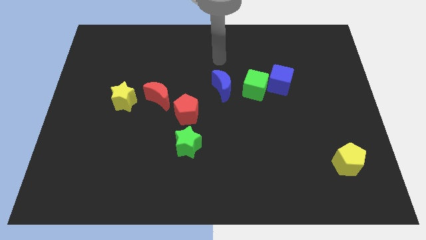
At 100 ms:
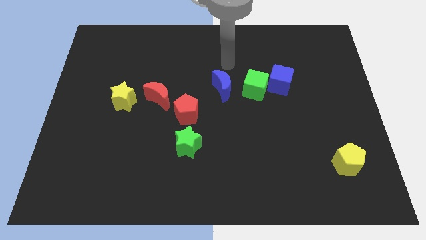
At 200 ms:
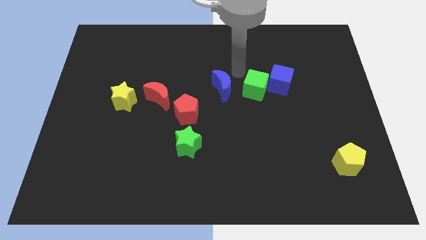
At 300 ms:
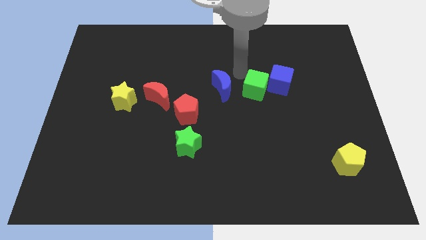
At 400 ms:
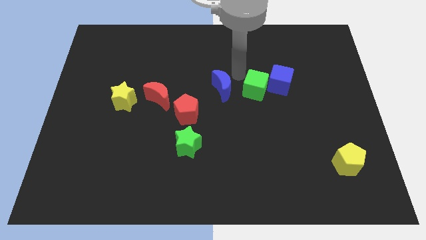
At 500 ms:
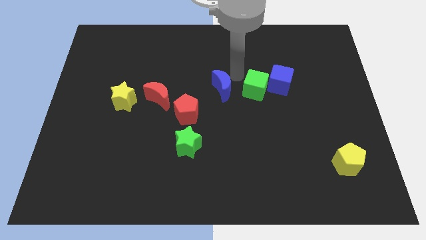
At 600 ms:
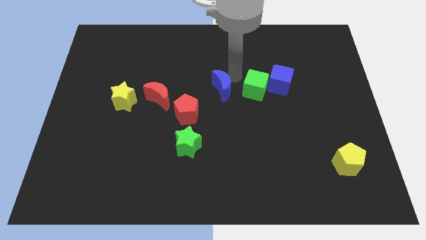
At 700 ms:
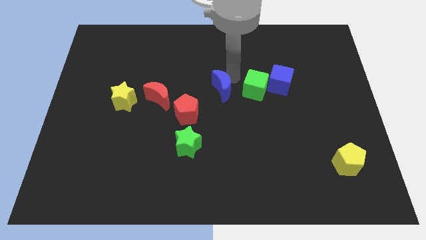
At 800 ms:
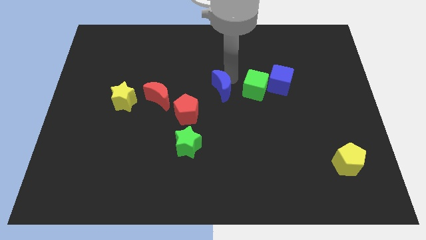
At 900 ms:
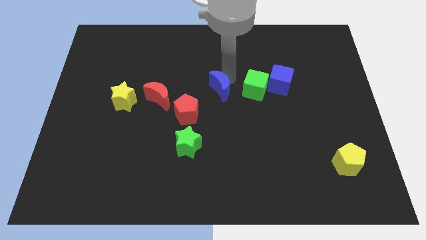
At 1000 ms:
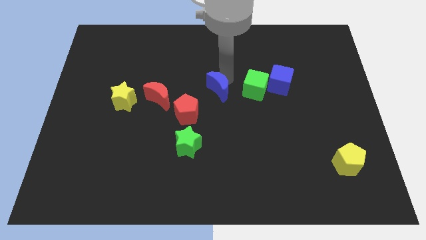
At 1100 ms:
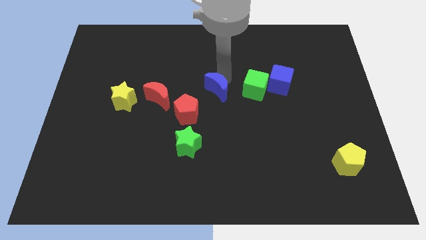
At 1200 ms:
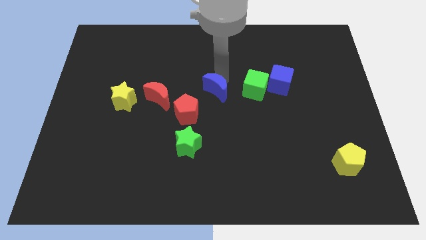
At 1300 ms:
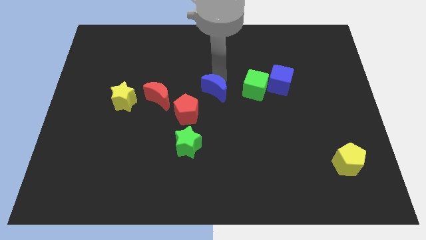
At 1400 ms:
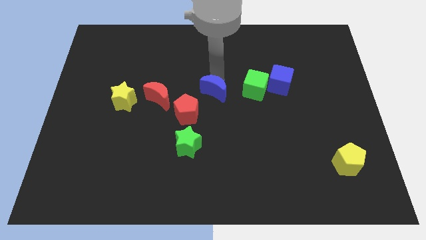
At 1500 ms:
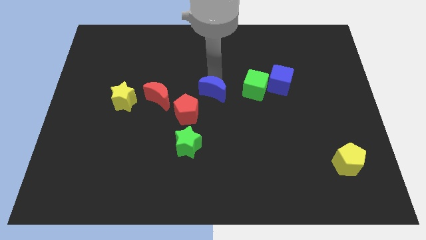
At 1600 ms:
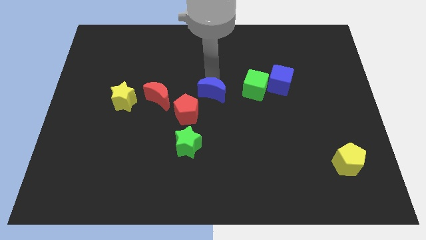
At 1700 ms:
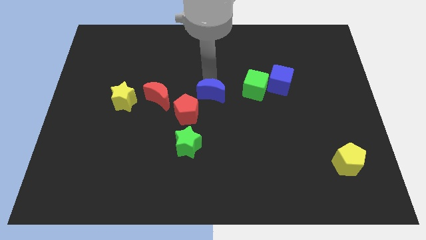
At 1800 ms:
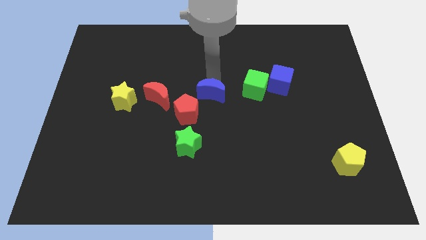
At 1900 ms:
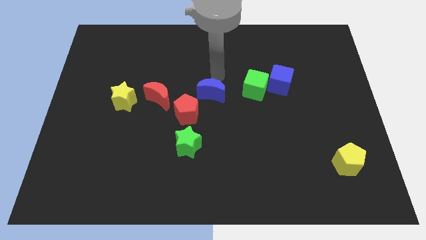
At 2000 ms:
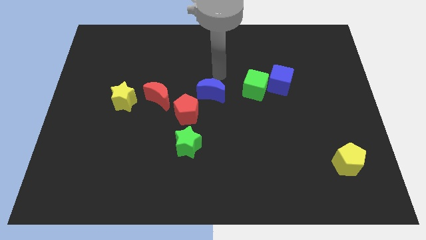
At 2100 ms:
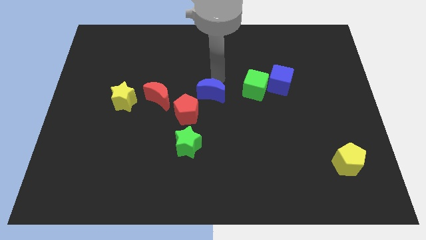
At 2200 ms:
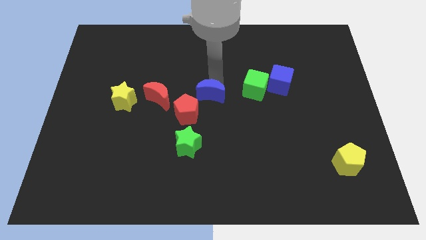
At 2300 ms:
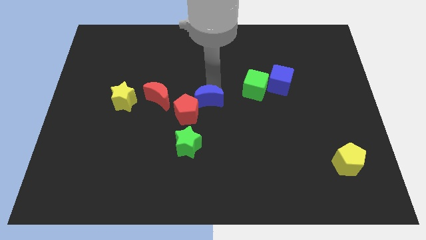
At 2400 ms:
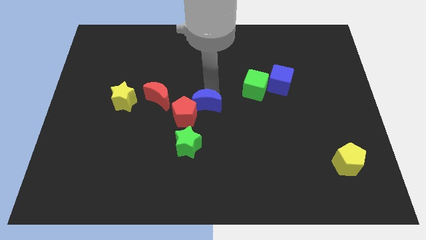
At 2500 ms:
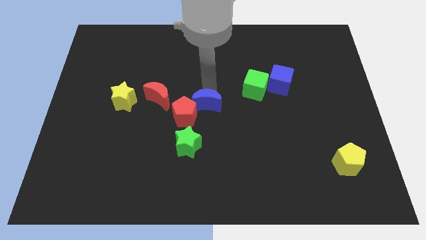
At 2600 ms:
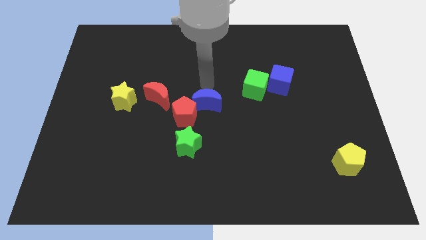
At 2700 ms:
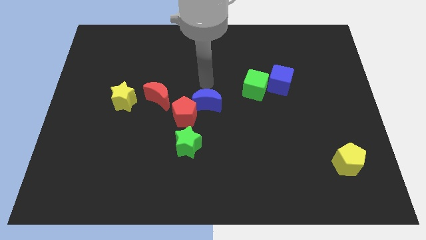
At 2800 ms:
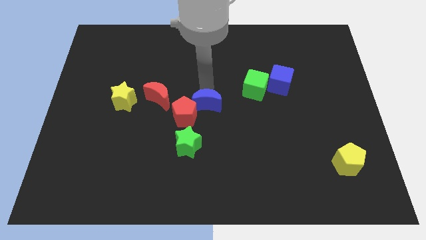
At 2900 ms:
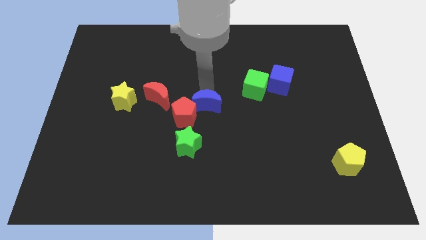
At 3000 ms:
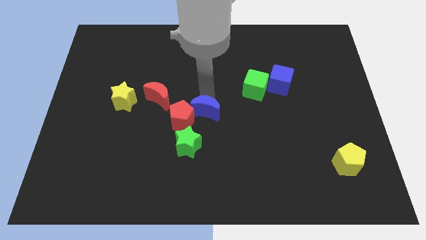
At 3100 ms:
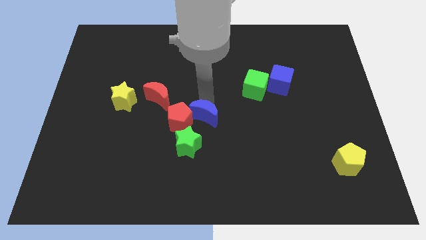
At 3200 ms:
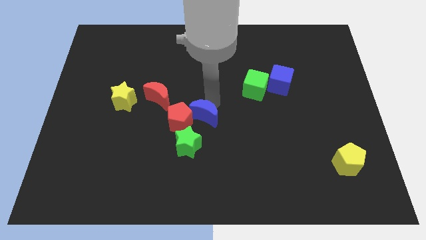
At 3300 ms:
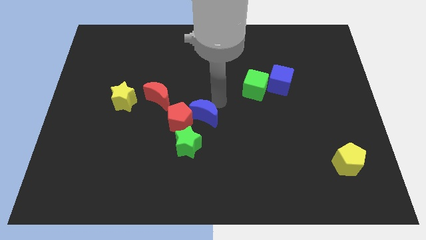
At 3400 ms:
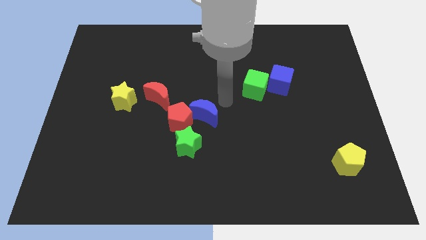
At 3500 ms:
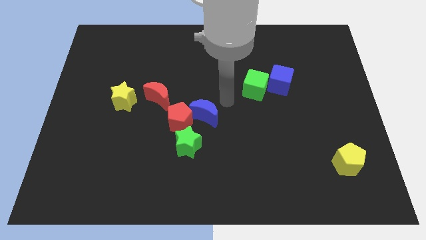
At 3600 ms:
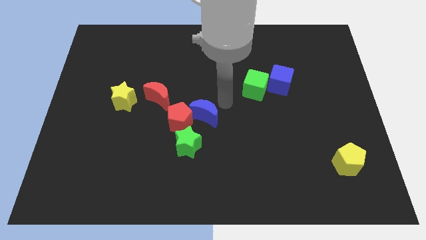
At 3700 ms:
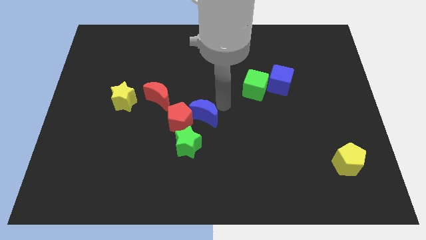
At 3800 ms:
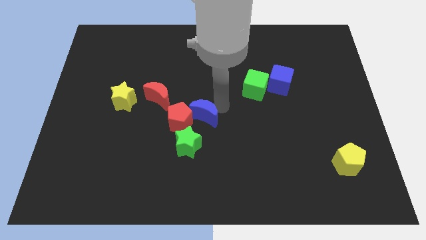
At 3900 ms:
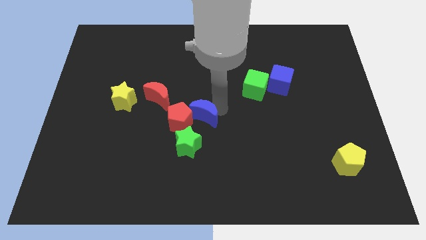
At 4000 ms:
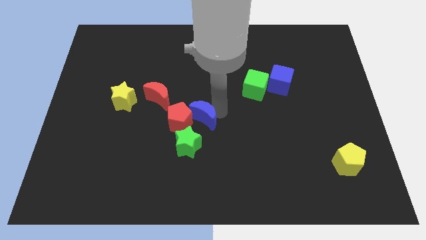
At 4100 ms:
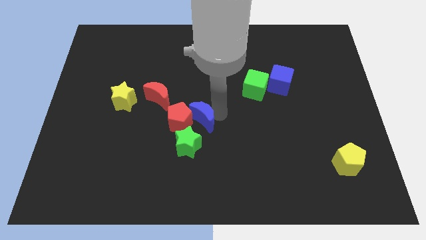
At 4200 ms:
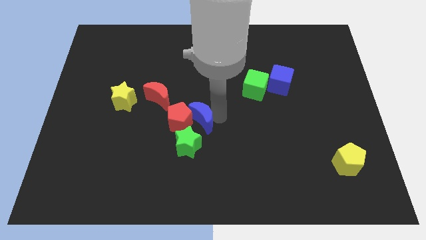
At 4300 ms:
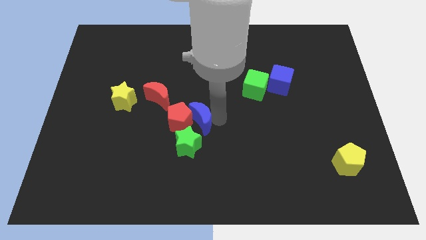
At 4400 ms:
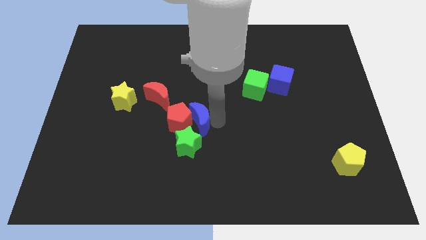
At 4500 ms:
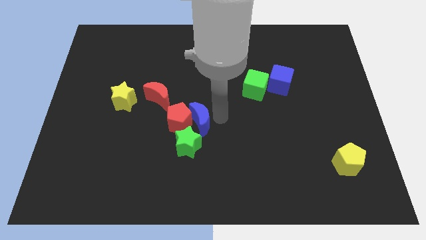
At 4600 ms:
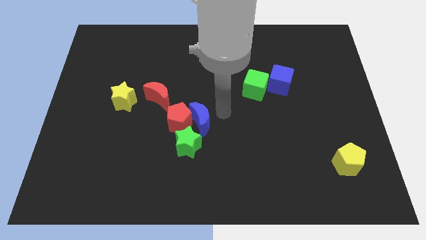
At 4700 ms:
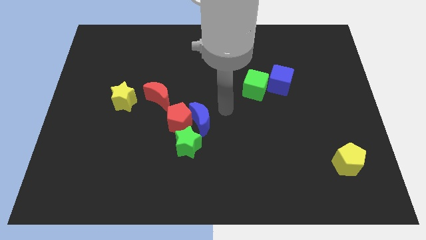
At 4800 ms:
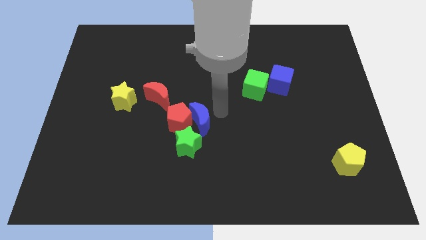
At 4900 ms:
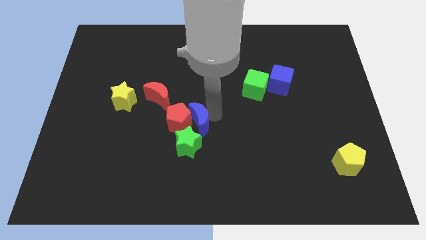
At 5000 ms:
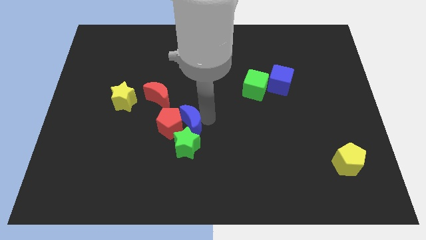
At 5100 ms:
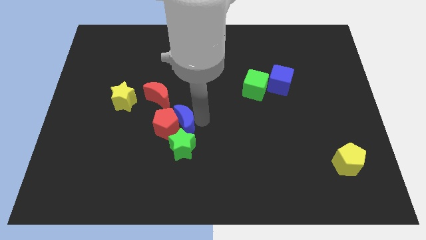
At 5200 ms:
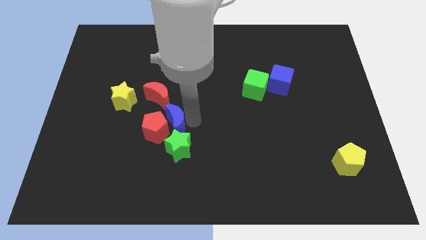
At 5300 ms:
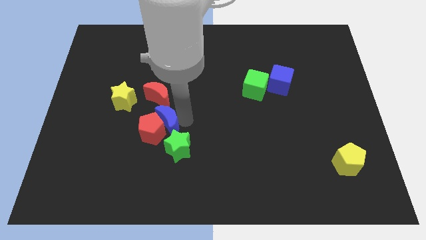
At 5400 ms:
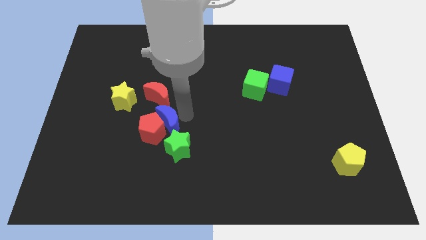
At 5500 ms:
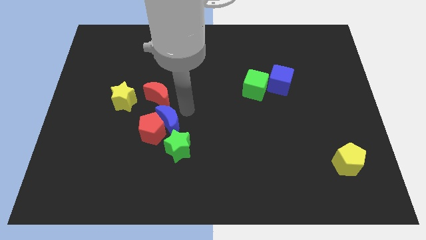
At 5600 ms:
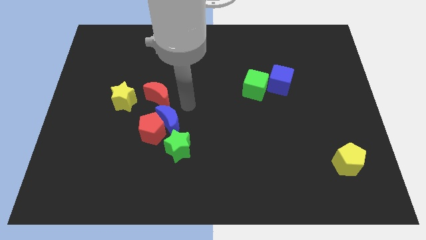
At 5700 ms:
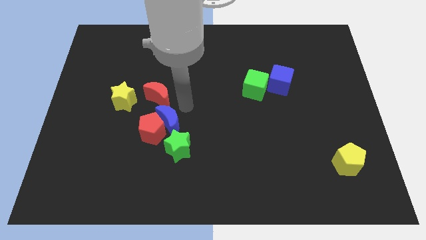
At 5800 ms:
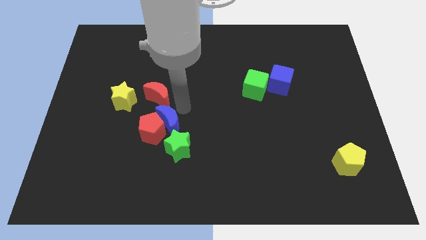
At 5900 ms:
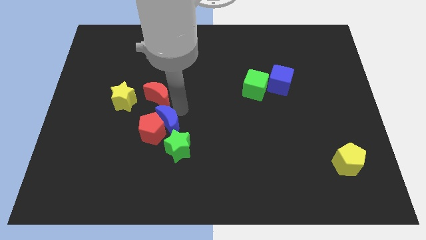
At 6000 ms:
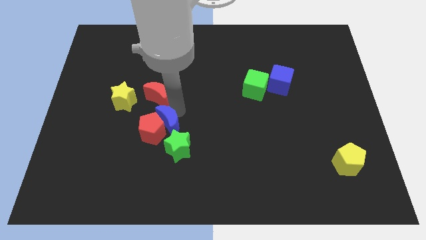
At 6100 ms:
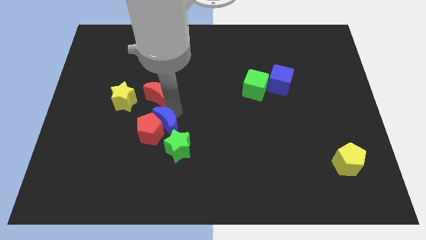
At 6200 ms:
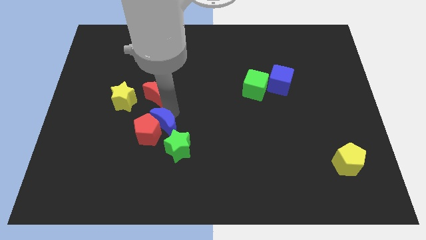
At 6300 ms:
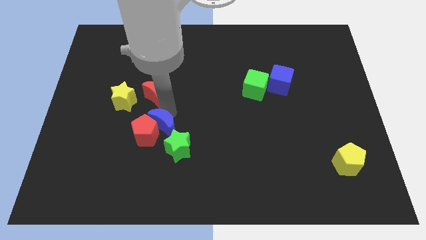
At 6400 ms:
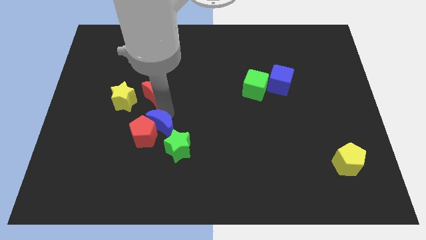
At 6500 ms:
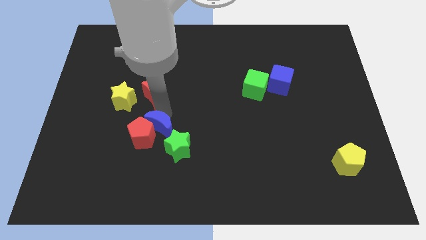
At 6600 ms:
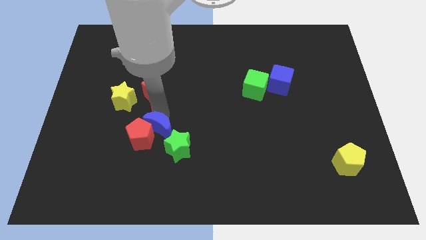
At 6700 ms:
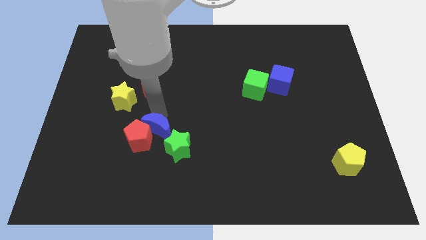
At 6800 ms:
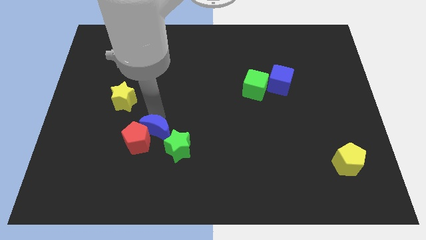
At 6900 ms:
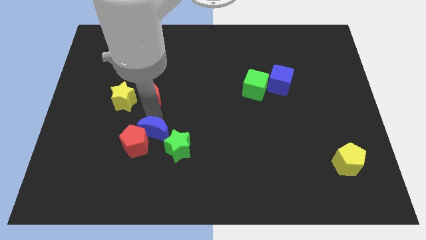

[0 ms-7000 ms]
slide the blue moon down and to the left diagonally

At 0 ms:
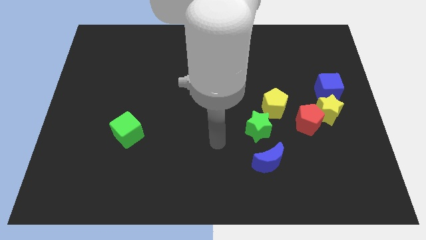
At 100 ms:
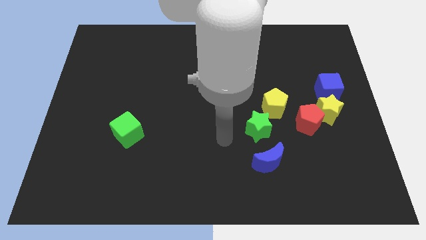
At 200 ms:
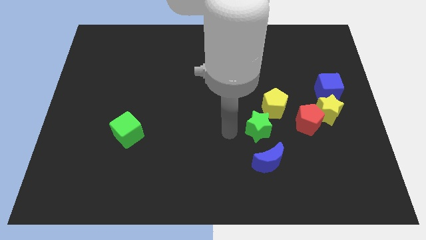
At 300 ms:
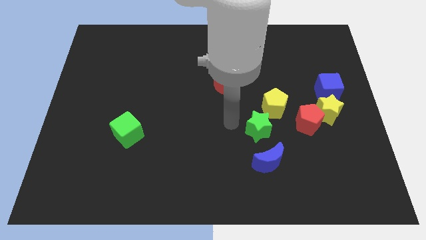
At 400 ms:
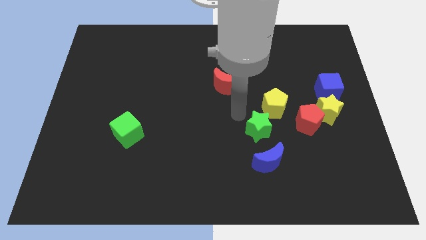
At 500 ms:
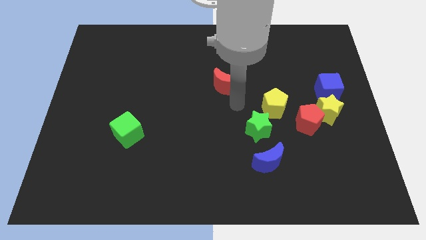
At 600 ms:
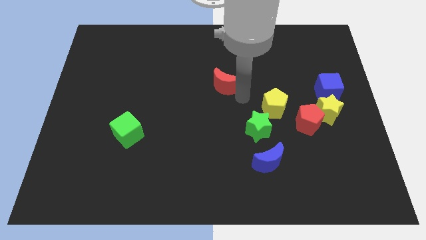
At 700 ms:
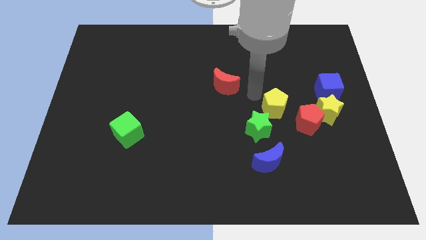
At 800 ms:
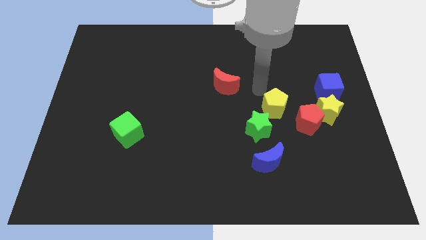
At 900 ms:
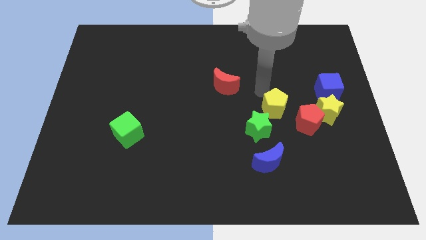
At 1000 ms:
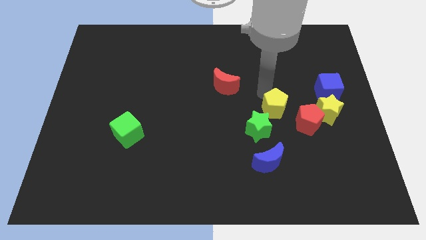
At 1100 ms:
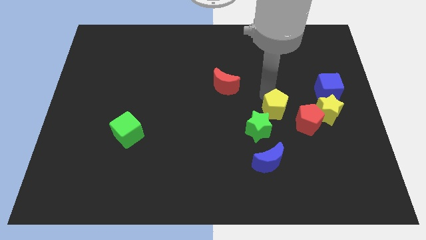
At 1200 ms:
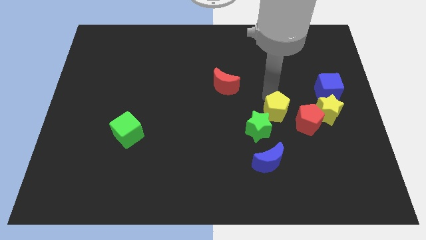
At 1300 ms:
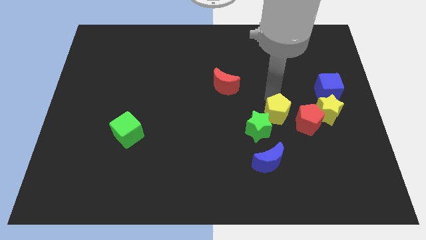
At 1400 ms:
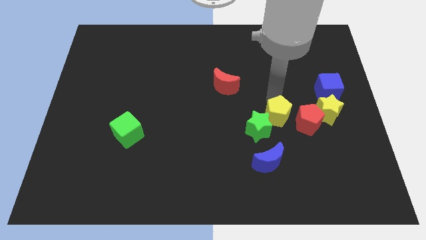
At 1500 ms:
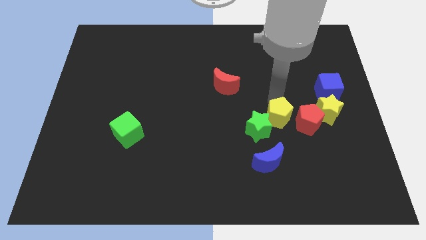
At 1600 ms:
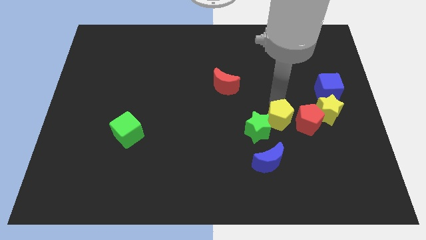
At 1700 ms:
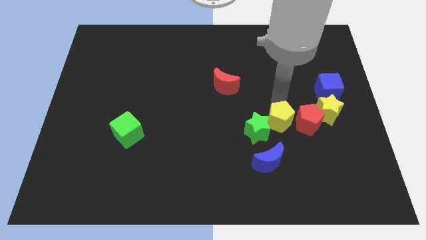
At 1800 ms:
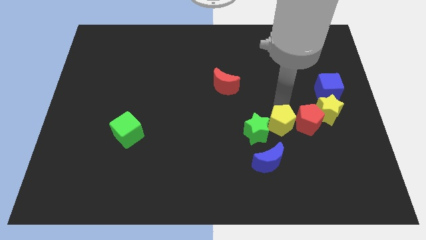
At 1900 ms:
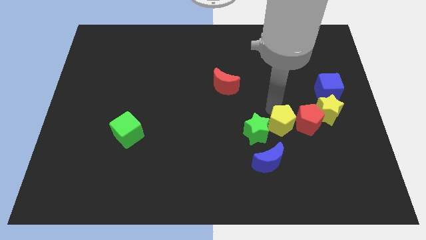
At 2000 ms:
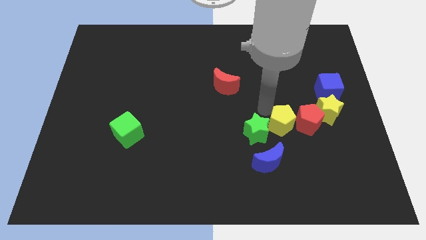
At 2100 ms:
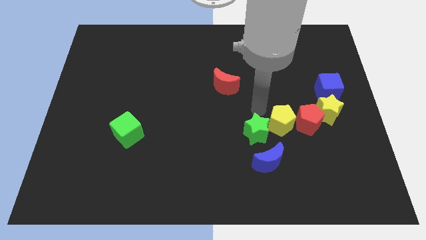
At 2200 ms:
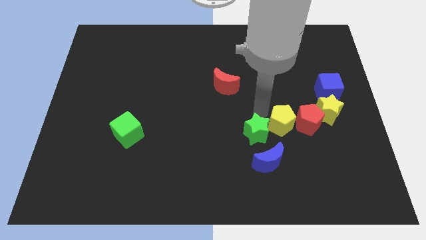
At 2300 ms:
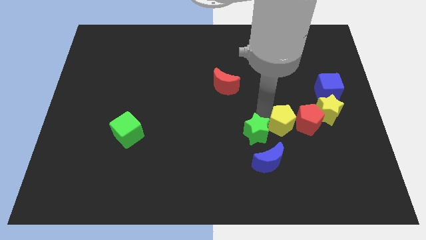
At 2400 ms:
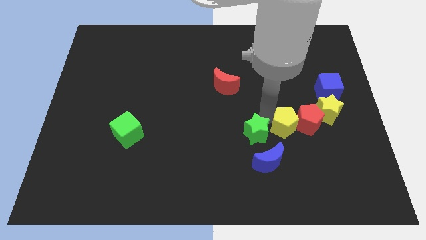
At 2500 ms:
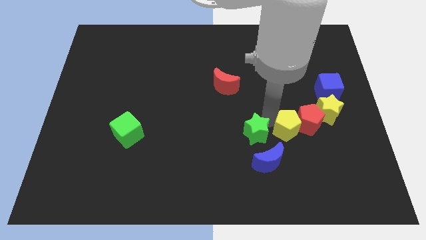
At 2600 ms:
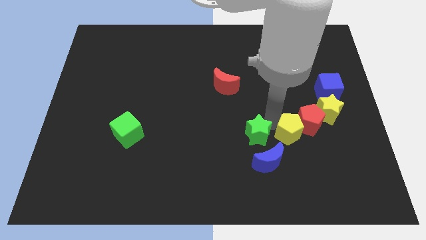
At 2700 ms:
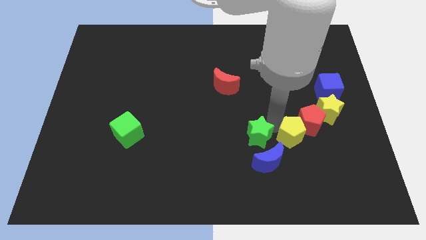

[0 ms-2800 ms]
slightly push the yellow pentagon diagonally down and right
